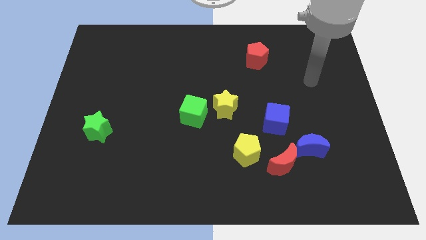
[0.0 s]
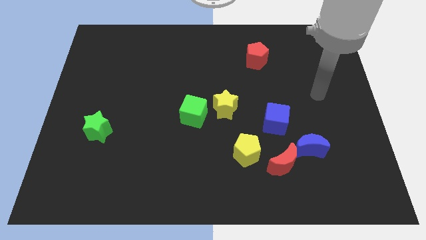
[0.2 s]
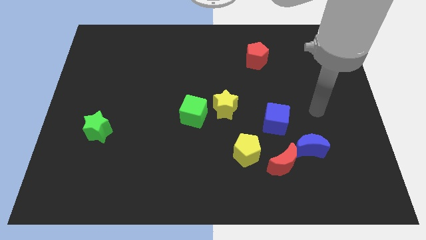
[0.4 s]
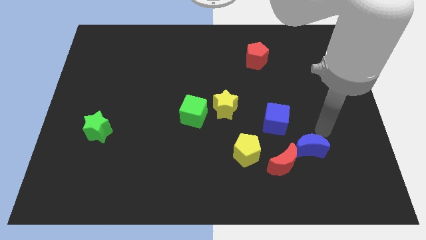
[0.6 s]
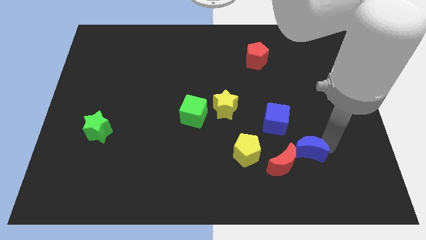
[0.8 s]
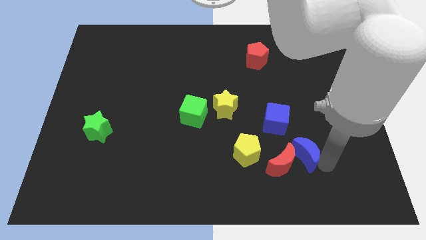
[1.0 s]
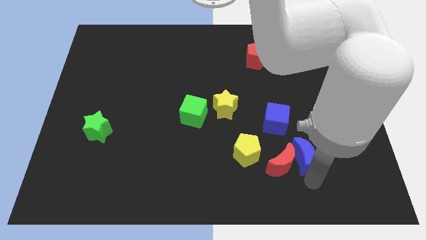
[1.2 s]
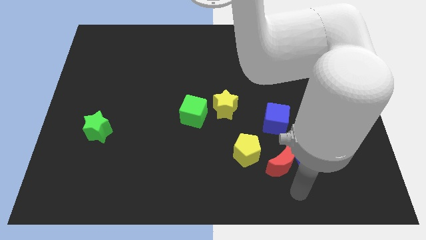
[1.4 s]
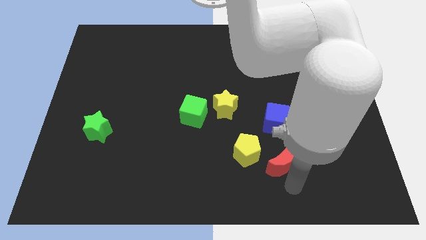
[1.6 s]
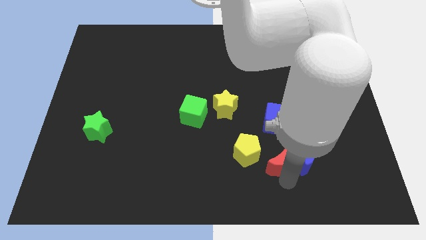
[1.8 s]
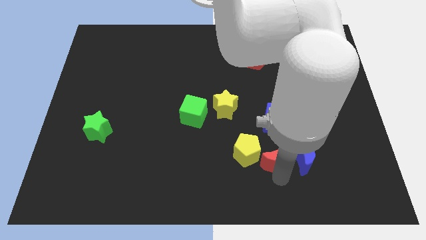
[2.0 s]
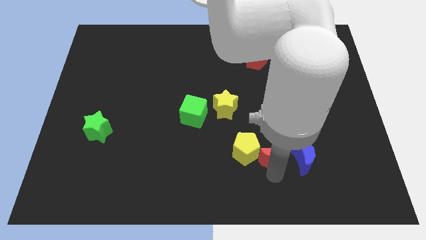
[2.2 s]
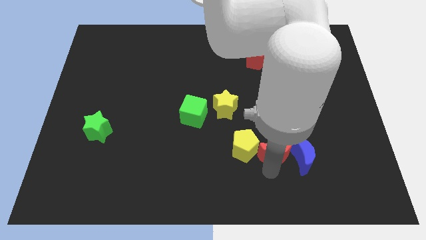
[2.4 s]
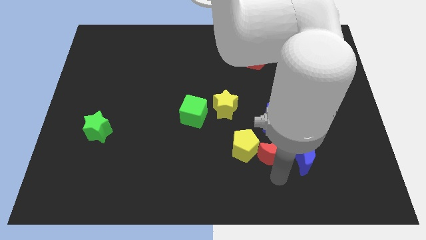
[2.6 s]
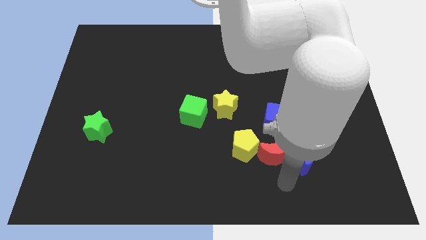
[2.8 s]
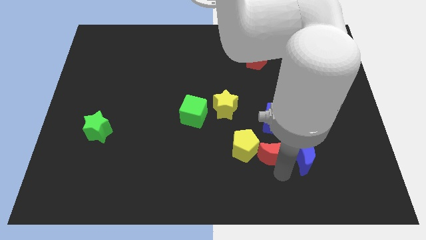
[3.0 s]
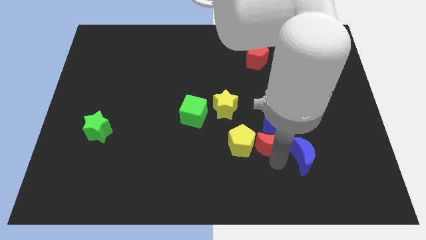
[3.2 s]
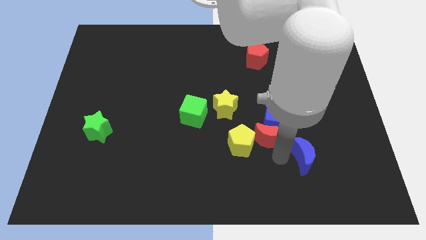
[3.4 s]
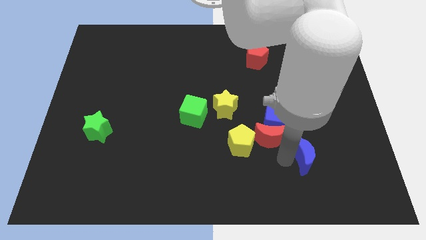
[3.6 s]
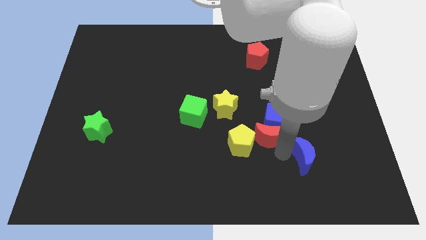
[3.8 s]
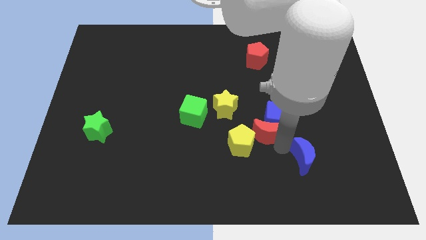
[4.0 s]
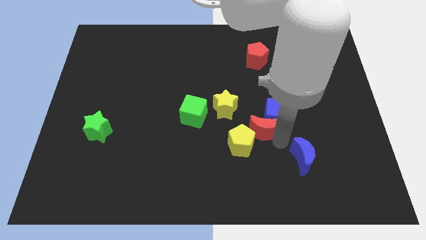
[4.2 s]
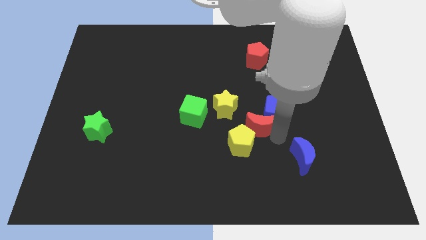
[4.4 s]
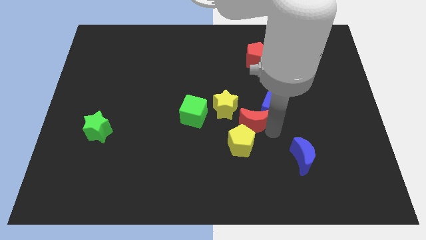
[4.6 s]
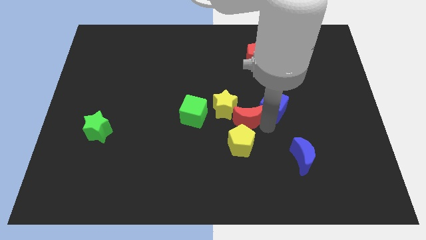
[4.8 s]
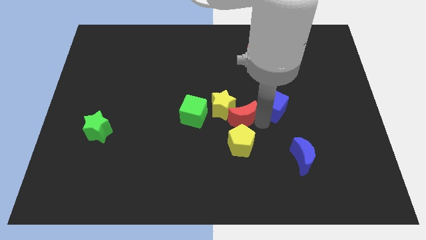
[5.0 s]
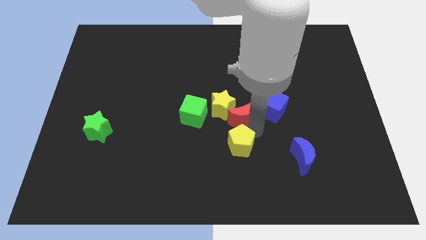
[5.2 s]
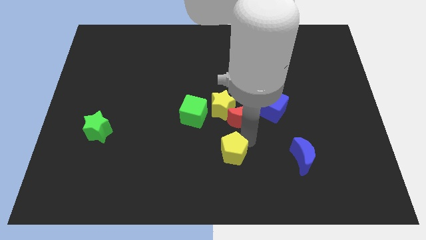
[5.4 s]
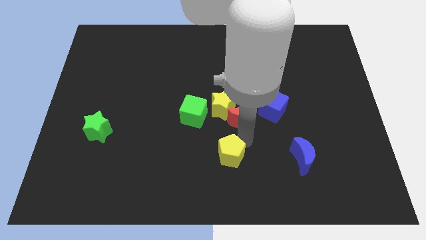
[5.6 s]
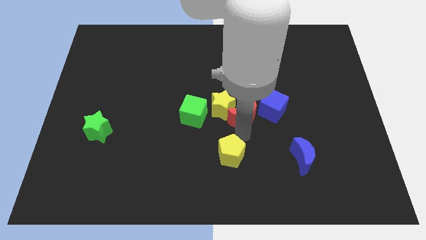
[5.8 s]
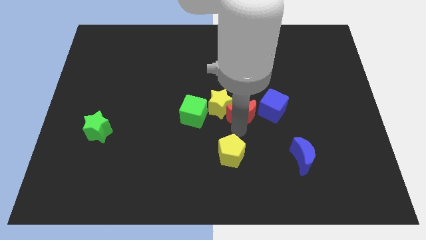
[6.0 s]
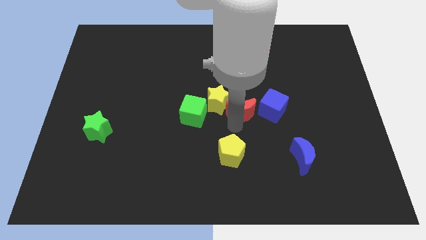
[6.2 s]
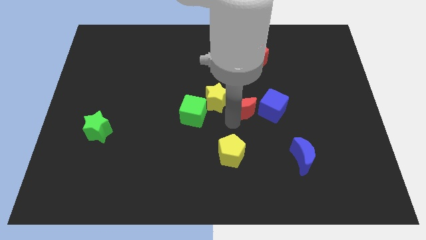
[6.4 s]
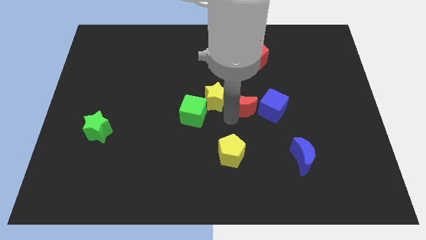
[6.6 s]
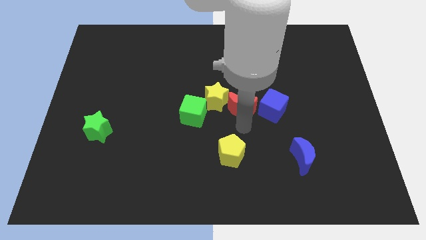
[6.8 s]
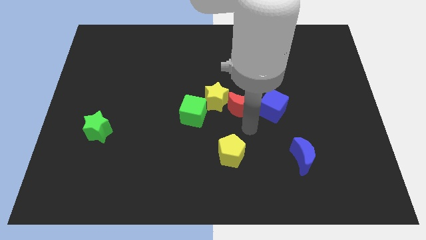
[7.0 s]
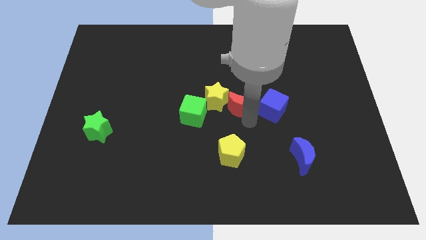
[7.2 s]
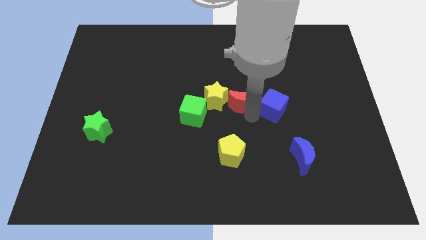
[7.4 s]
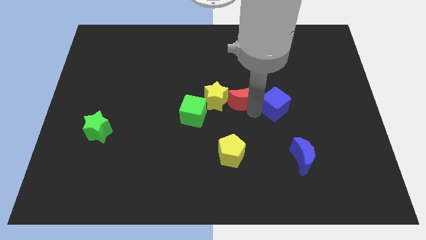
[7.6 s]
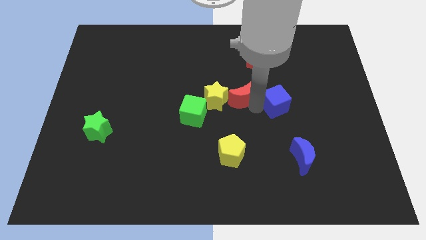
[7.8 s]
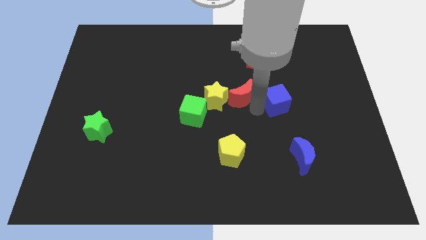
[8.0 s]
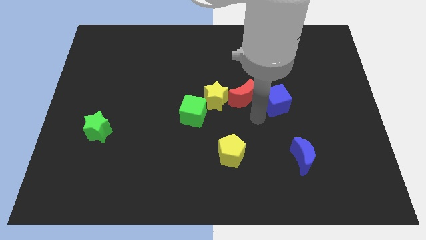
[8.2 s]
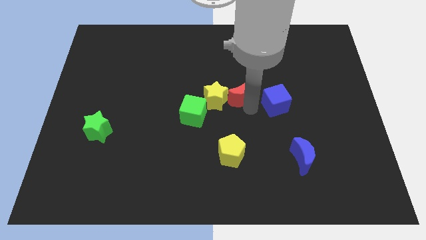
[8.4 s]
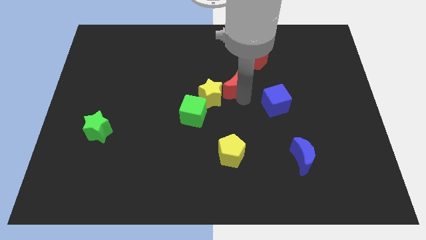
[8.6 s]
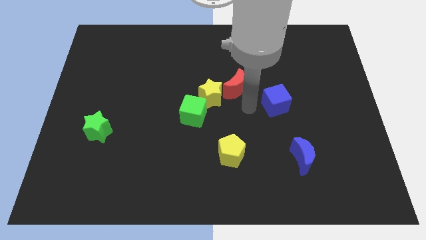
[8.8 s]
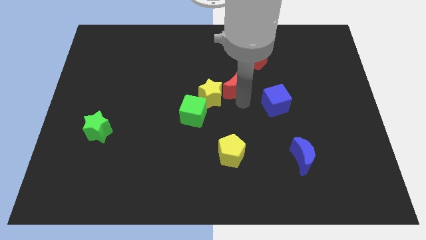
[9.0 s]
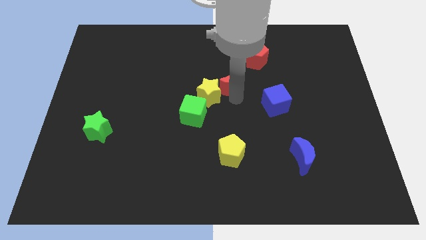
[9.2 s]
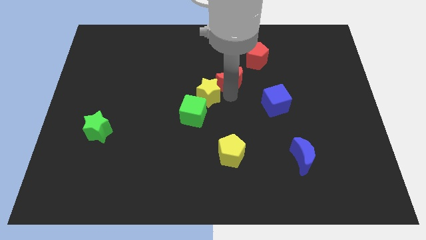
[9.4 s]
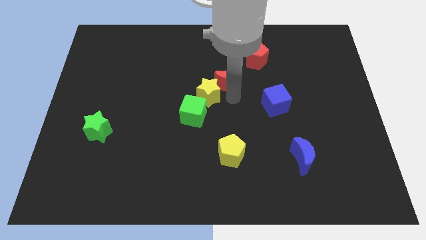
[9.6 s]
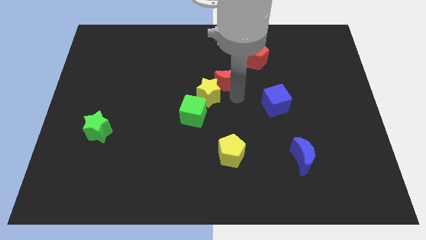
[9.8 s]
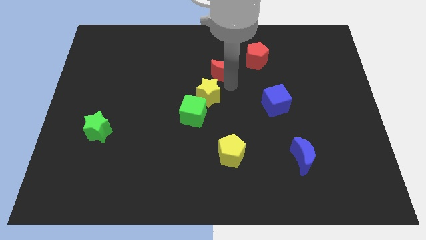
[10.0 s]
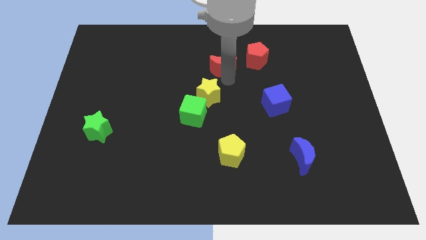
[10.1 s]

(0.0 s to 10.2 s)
slide the red moon left of the red pentagon

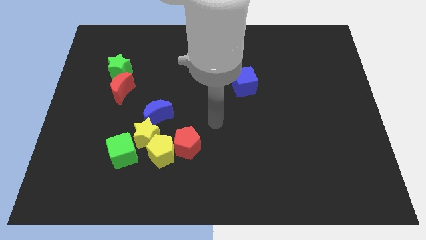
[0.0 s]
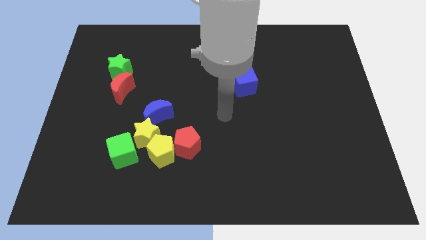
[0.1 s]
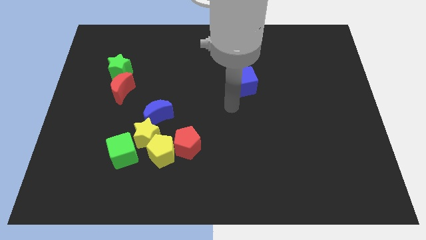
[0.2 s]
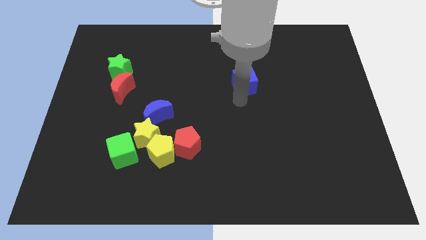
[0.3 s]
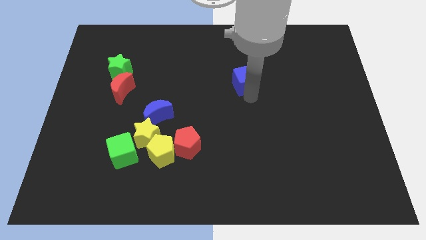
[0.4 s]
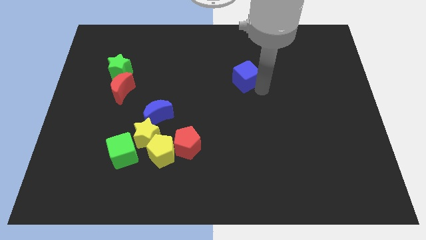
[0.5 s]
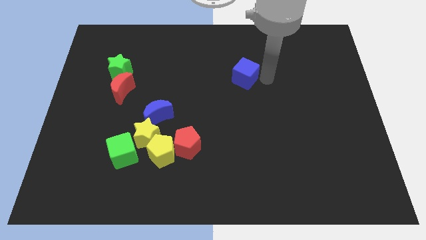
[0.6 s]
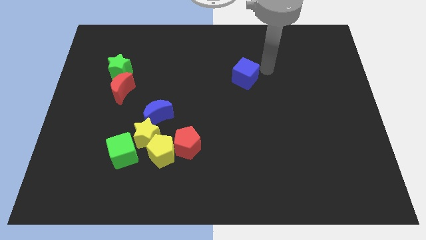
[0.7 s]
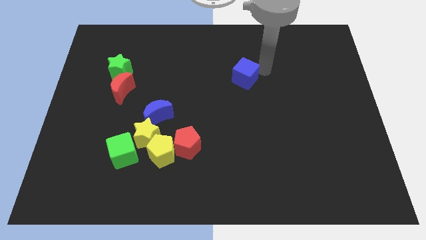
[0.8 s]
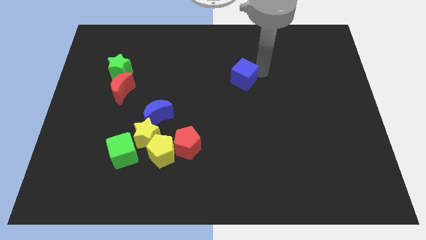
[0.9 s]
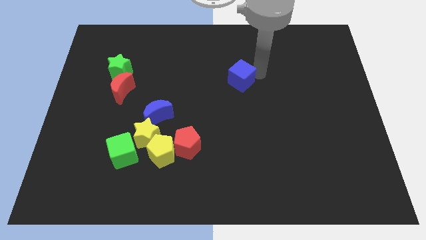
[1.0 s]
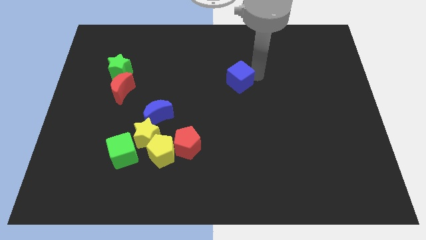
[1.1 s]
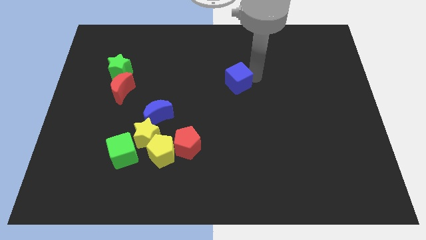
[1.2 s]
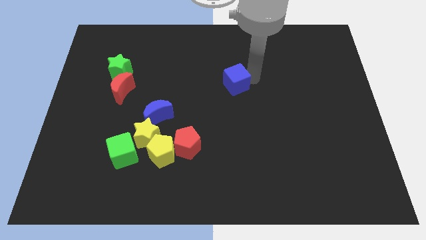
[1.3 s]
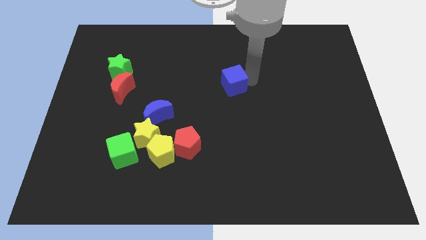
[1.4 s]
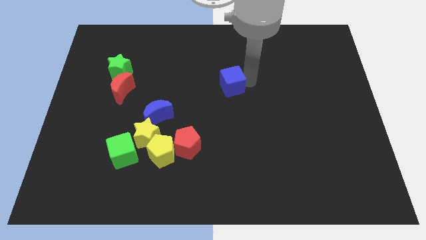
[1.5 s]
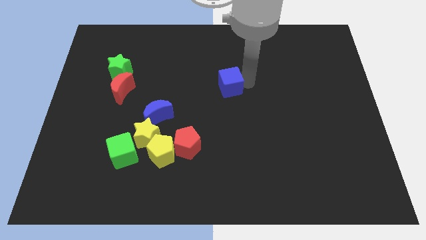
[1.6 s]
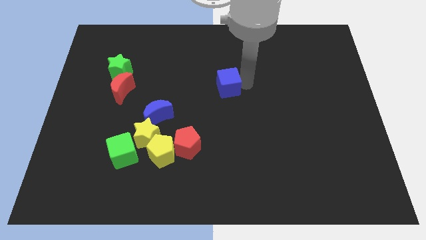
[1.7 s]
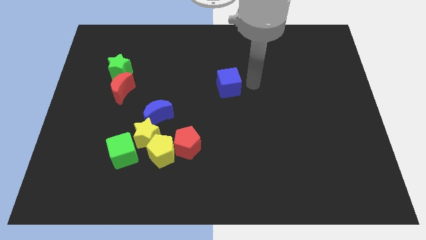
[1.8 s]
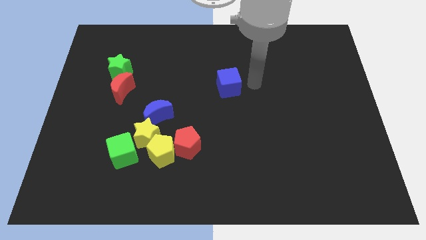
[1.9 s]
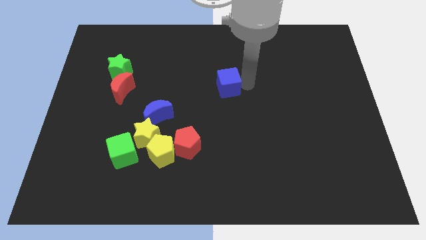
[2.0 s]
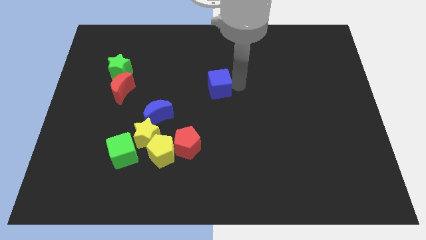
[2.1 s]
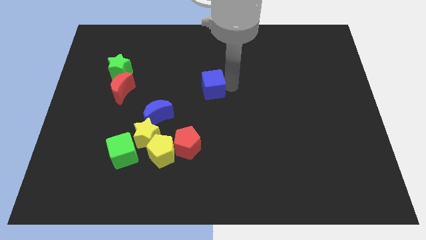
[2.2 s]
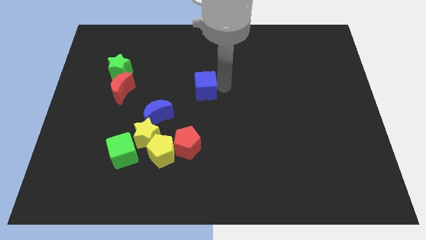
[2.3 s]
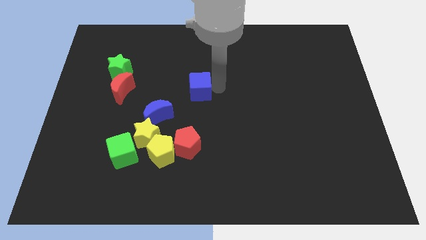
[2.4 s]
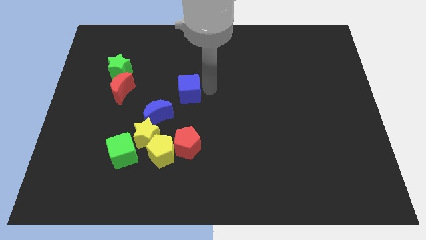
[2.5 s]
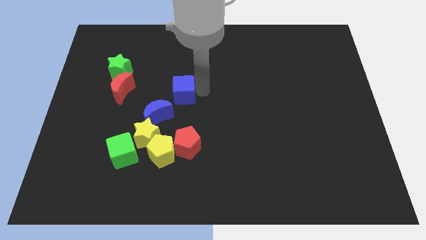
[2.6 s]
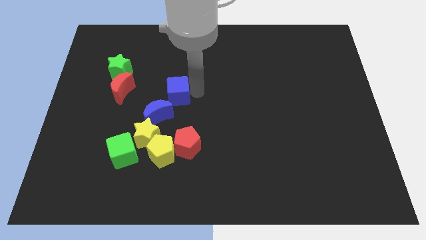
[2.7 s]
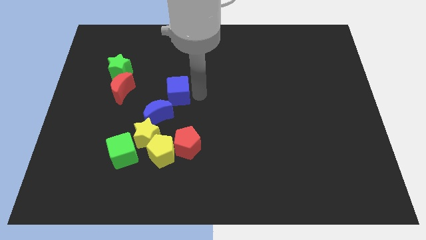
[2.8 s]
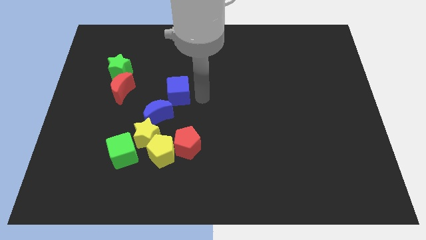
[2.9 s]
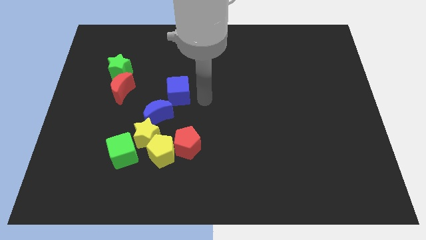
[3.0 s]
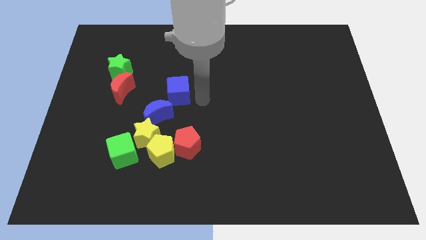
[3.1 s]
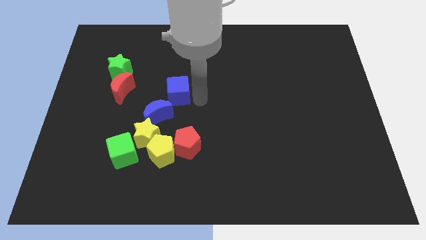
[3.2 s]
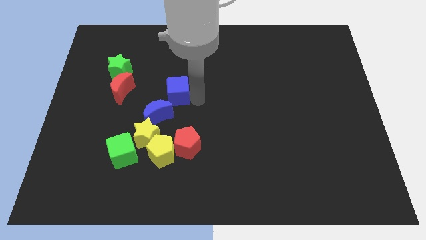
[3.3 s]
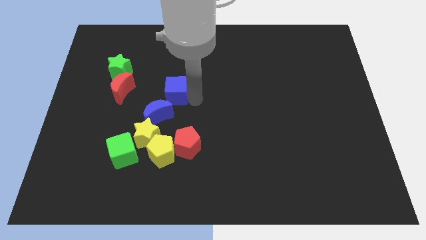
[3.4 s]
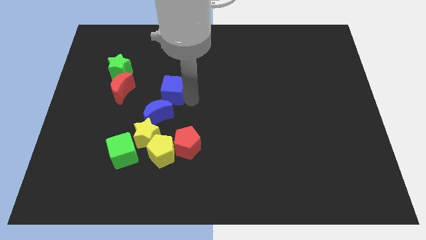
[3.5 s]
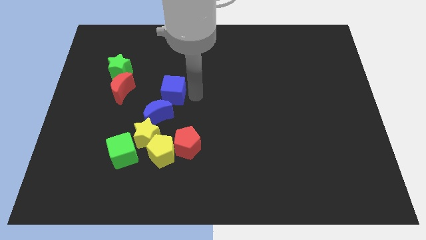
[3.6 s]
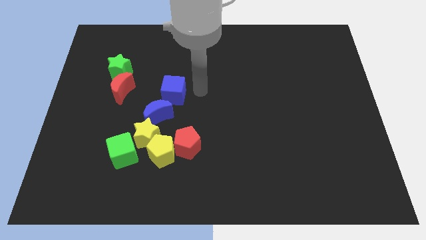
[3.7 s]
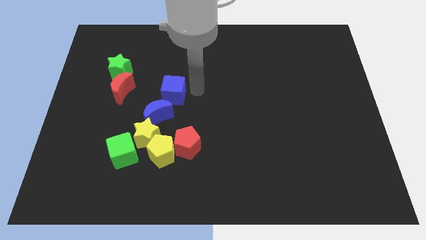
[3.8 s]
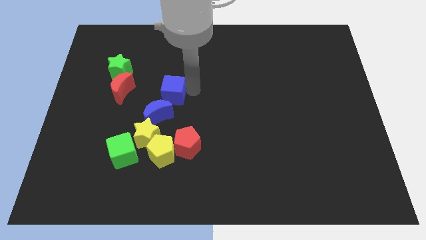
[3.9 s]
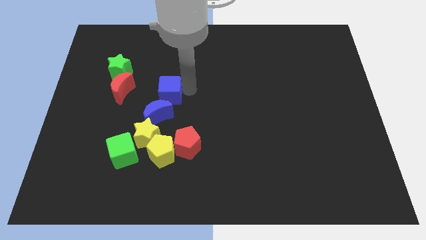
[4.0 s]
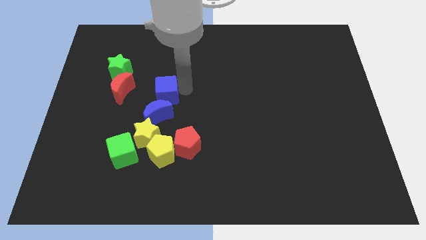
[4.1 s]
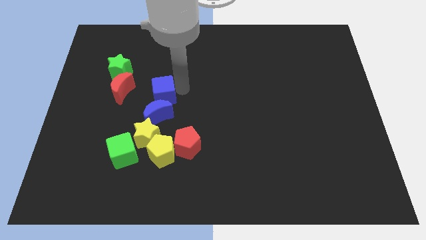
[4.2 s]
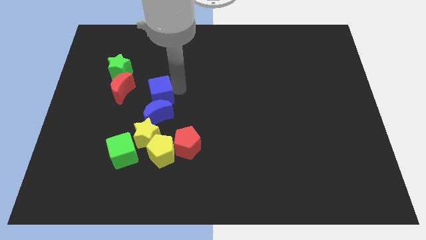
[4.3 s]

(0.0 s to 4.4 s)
slide the blue cube to the top left of the blue moon
